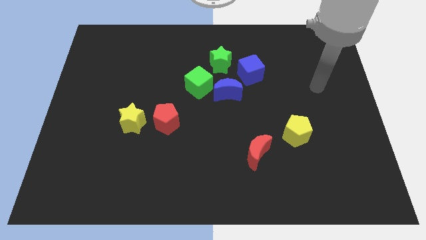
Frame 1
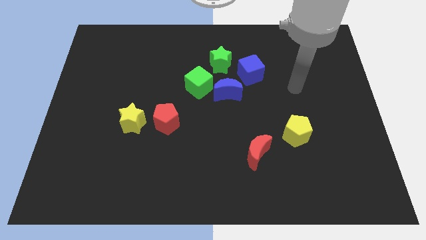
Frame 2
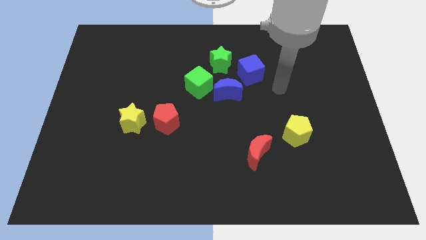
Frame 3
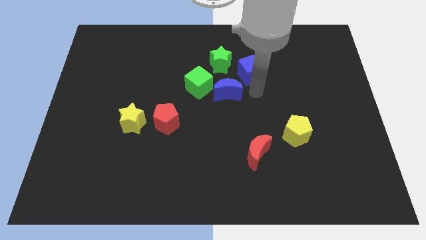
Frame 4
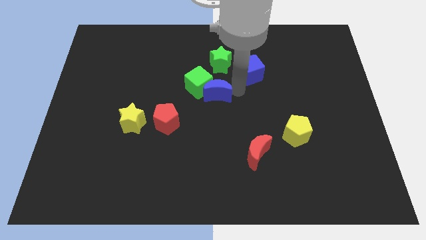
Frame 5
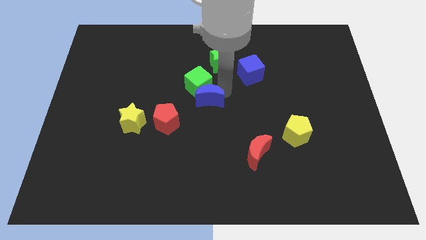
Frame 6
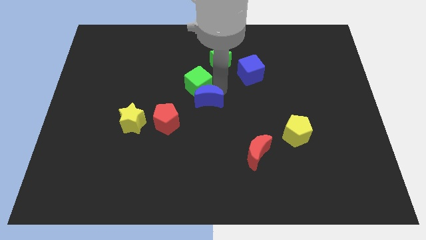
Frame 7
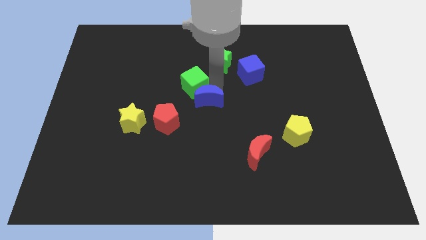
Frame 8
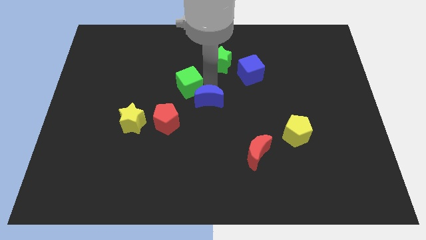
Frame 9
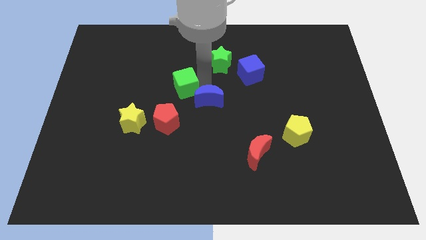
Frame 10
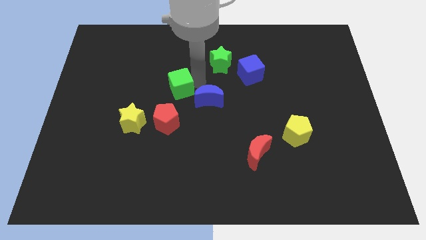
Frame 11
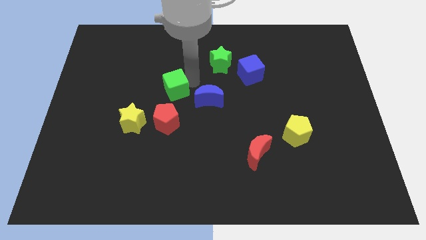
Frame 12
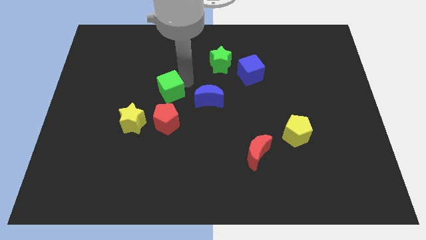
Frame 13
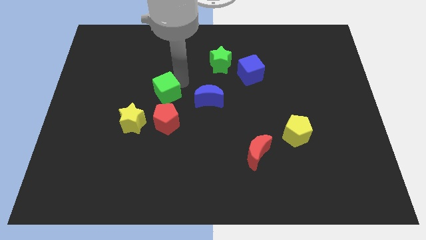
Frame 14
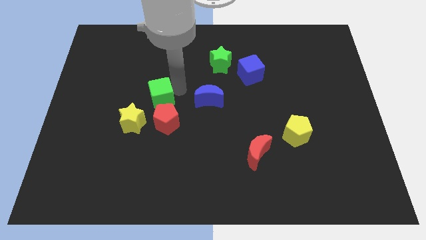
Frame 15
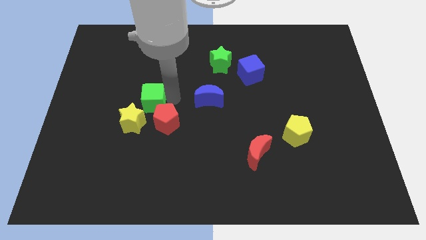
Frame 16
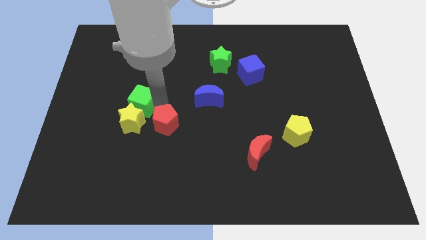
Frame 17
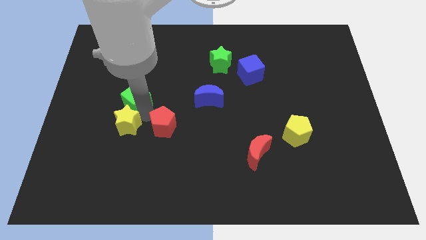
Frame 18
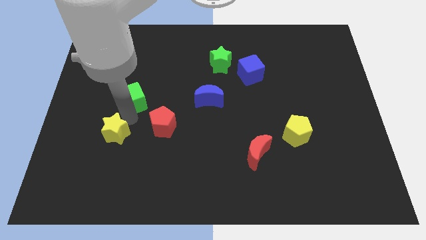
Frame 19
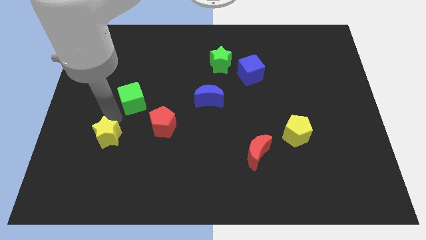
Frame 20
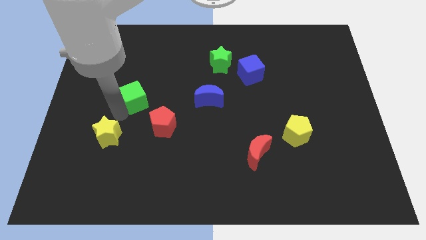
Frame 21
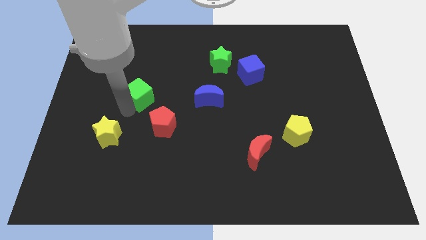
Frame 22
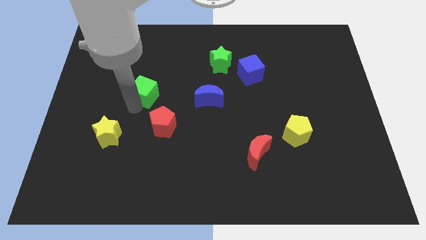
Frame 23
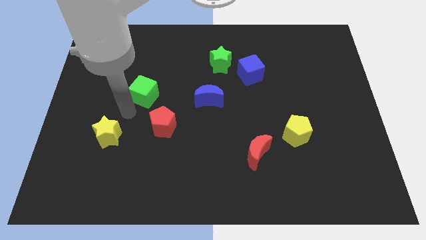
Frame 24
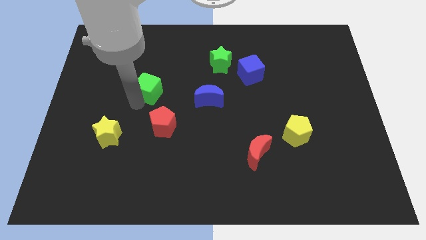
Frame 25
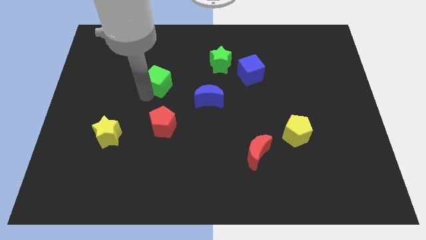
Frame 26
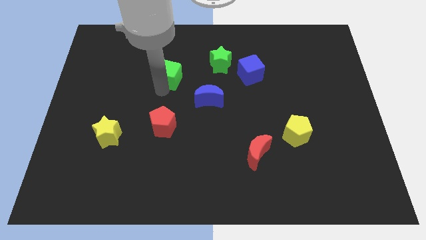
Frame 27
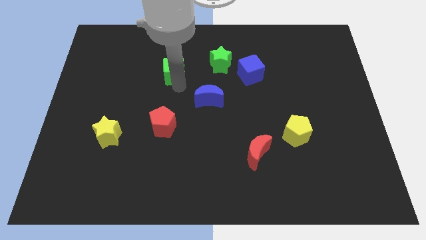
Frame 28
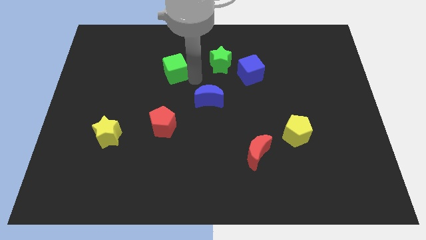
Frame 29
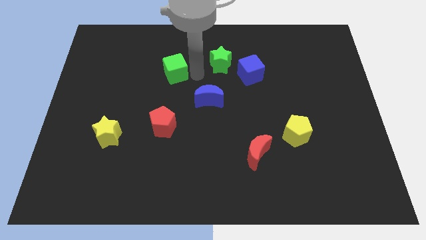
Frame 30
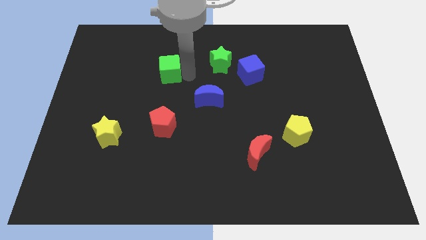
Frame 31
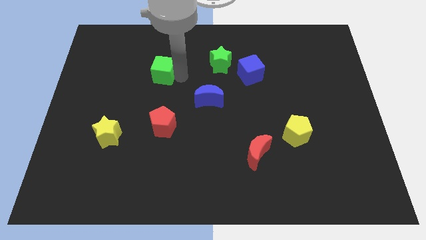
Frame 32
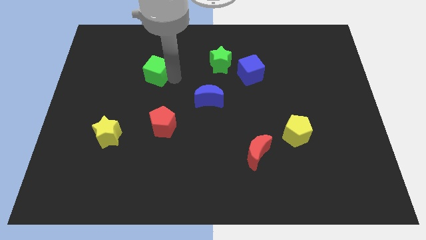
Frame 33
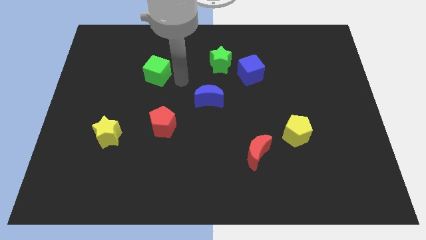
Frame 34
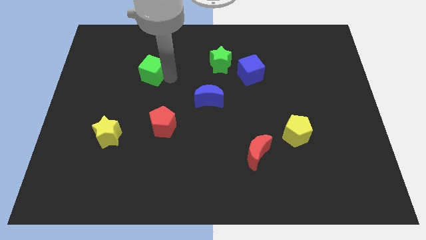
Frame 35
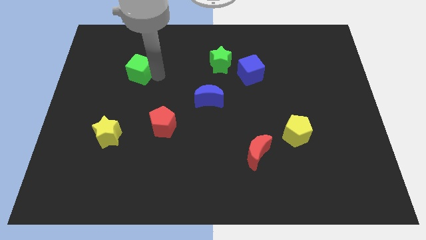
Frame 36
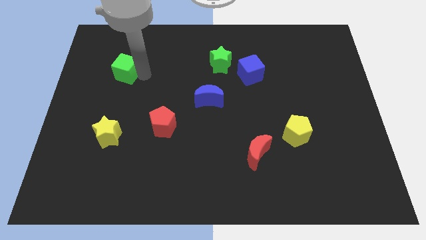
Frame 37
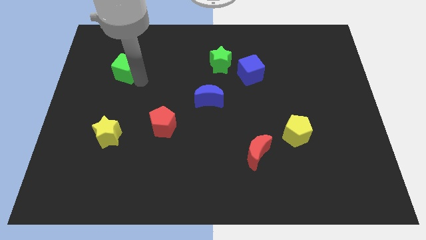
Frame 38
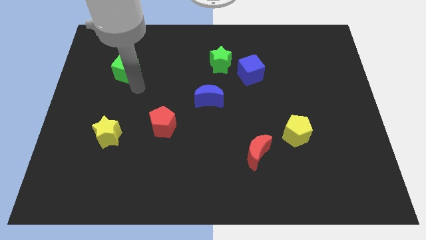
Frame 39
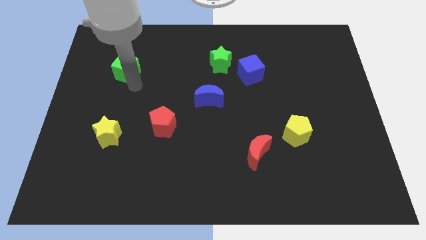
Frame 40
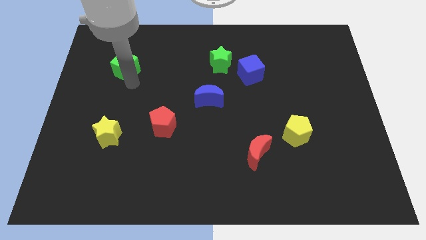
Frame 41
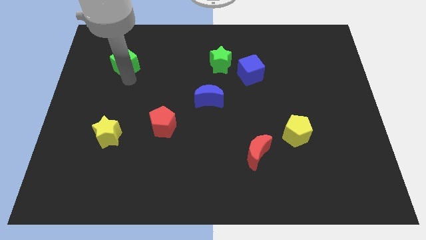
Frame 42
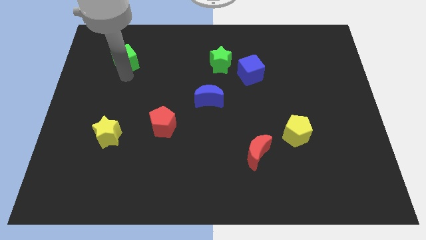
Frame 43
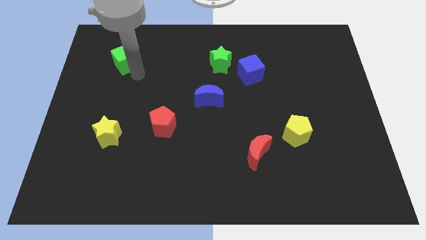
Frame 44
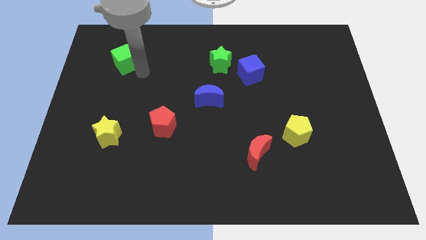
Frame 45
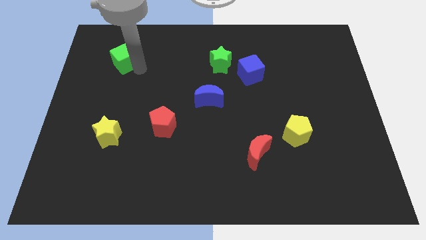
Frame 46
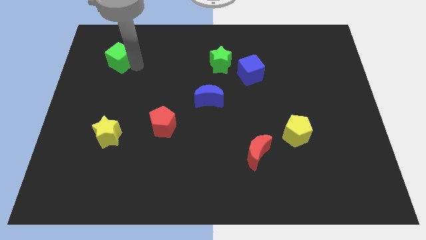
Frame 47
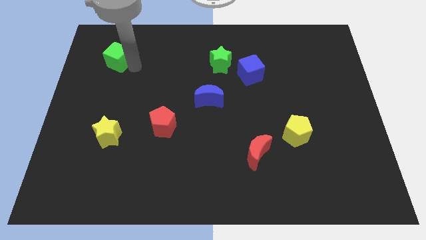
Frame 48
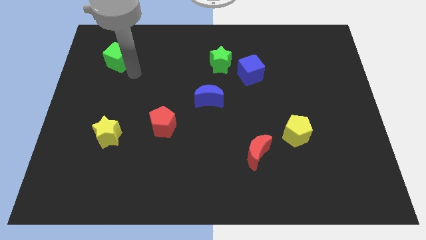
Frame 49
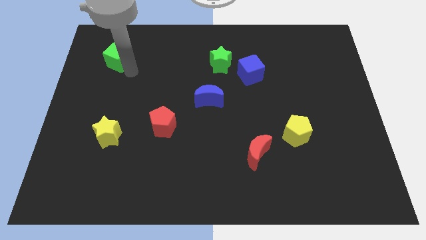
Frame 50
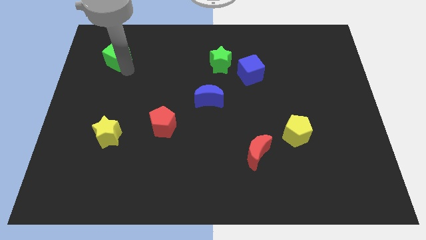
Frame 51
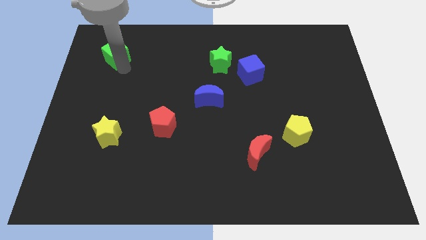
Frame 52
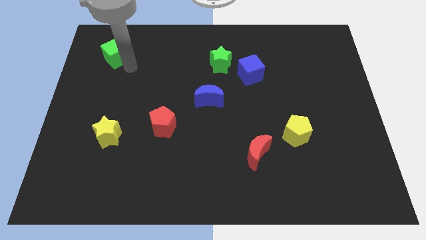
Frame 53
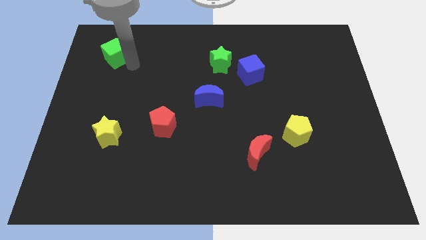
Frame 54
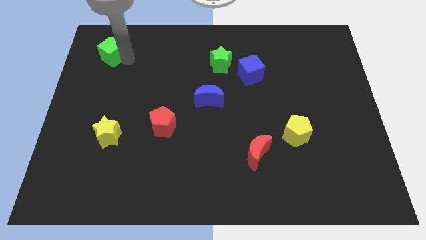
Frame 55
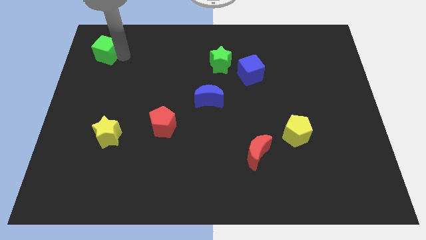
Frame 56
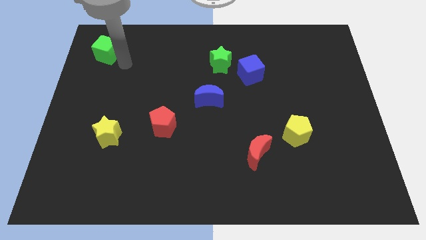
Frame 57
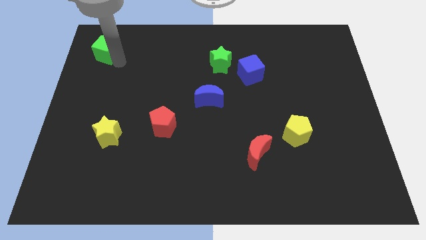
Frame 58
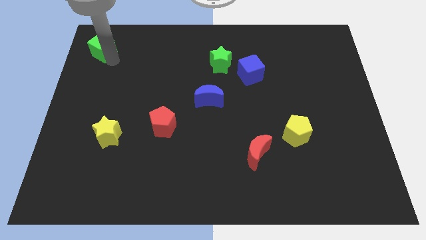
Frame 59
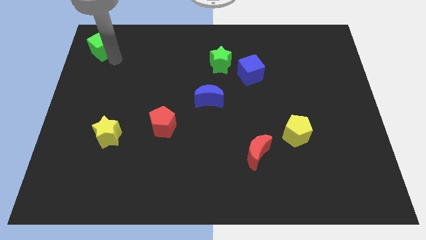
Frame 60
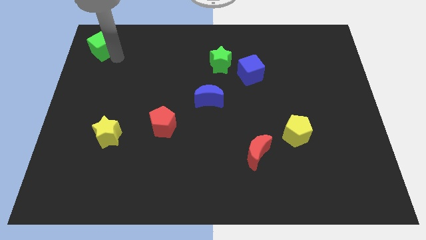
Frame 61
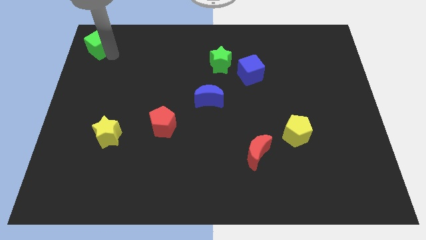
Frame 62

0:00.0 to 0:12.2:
push the green cube to the top left of the board
